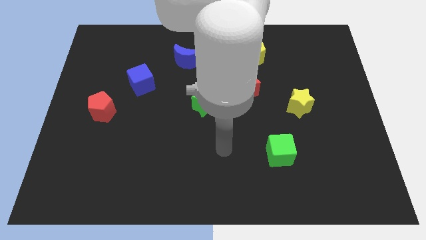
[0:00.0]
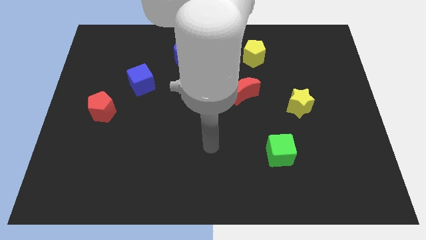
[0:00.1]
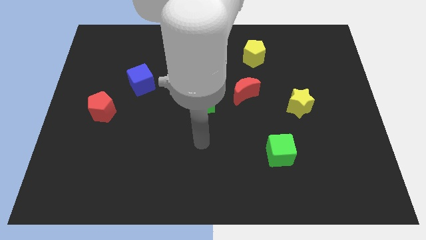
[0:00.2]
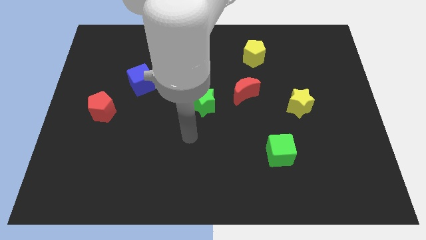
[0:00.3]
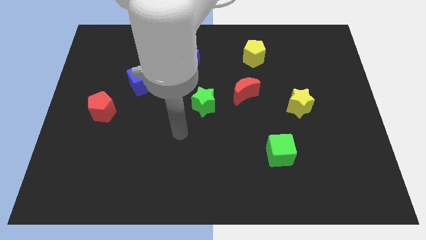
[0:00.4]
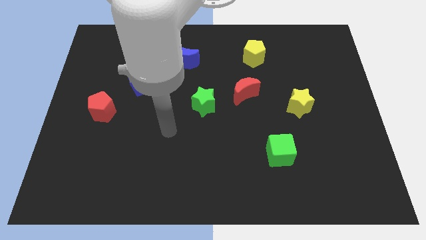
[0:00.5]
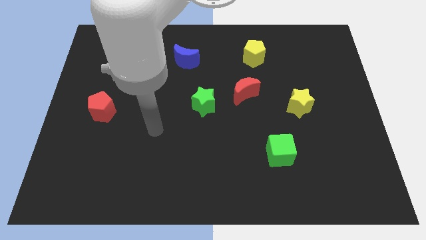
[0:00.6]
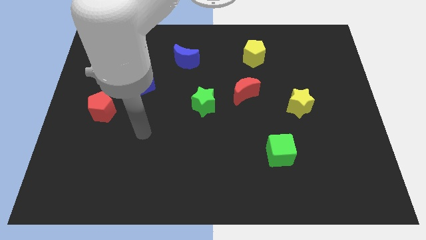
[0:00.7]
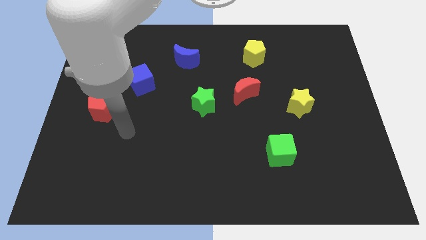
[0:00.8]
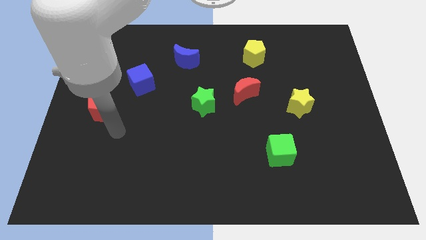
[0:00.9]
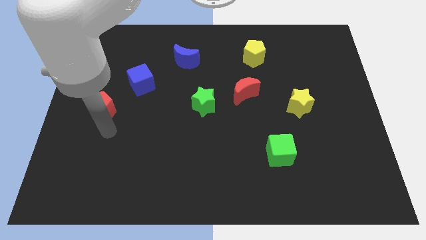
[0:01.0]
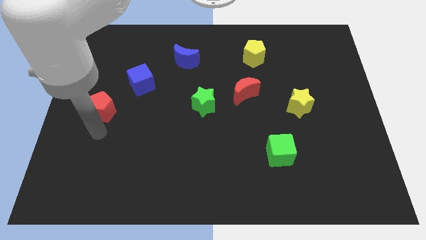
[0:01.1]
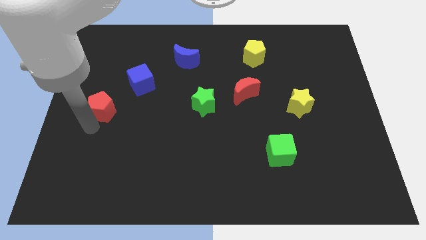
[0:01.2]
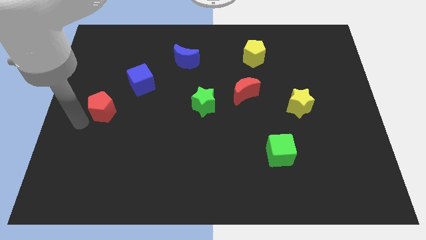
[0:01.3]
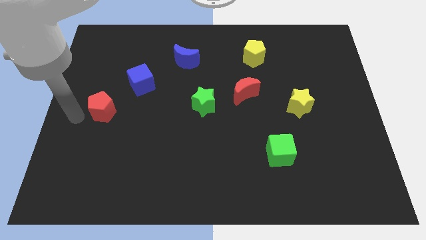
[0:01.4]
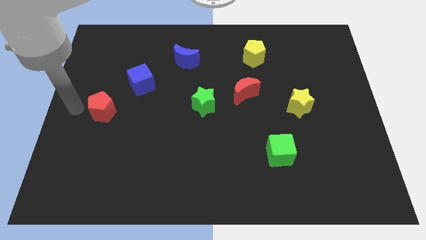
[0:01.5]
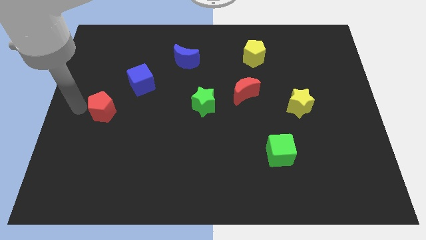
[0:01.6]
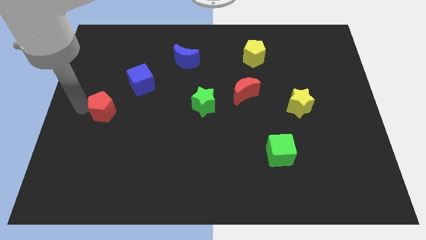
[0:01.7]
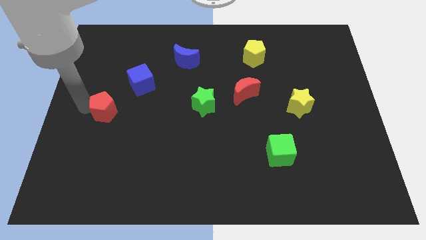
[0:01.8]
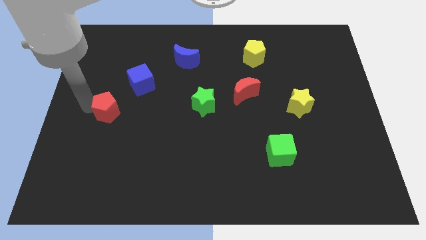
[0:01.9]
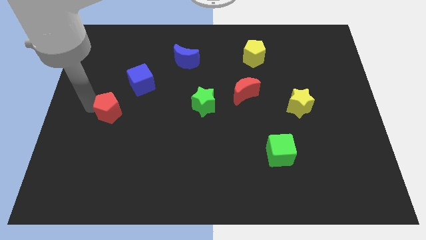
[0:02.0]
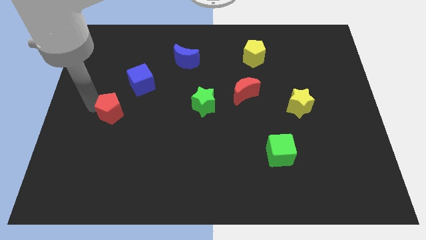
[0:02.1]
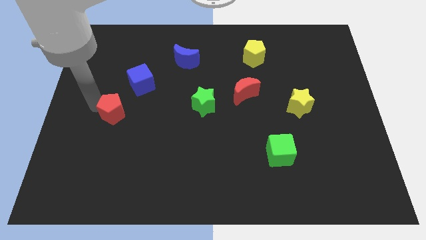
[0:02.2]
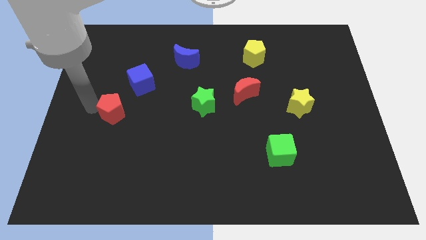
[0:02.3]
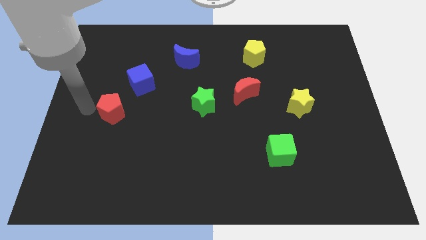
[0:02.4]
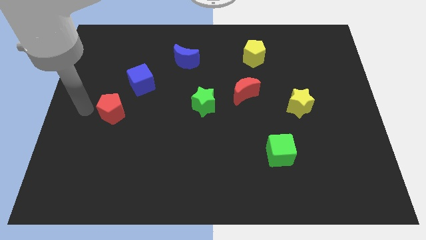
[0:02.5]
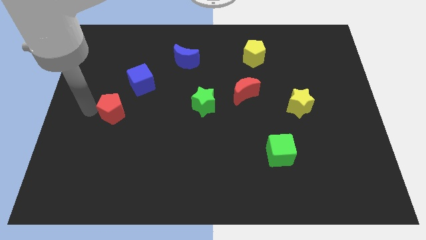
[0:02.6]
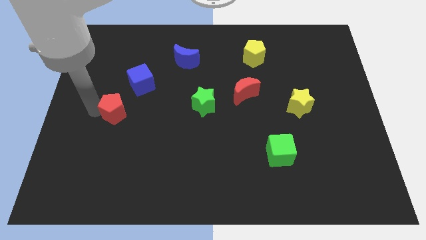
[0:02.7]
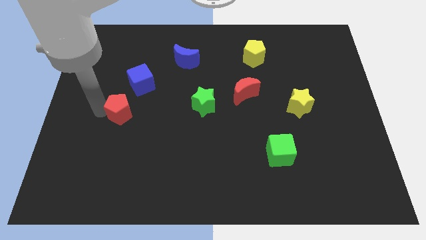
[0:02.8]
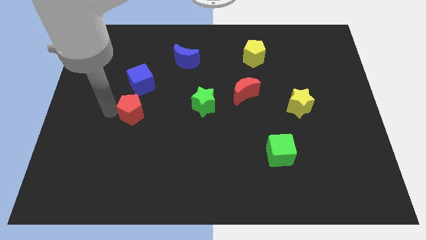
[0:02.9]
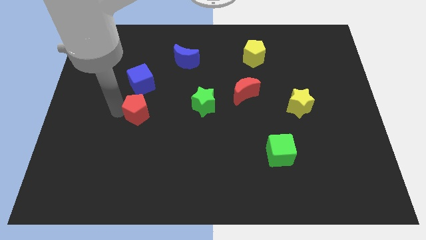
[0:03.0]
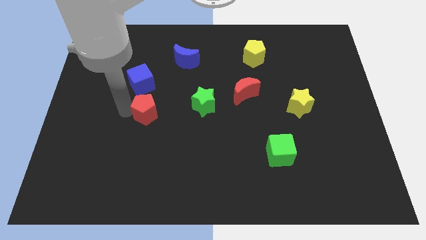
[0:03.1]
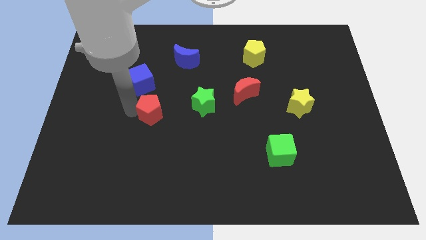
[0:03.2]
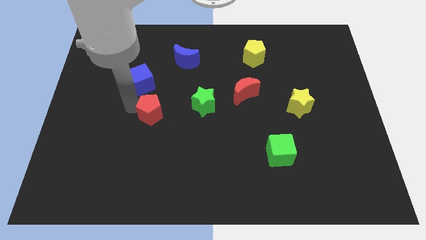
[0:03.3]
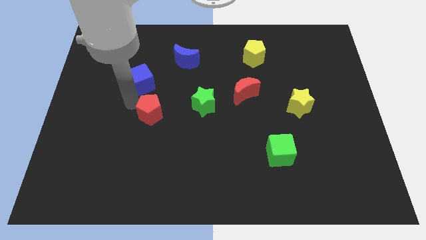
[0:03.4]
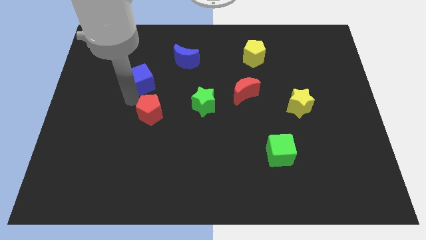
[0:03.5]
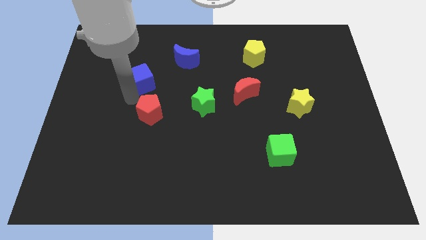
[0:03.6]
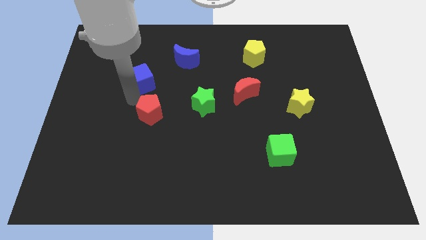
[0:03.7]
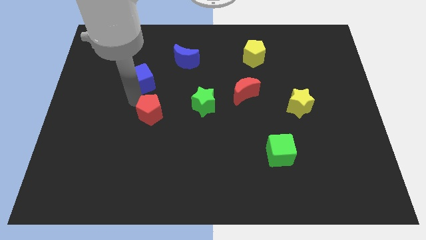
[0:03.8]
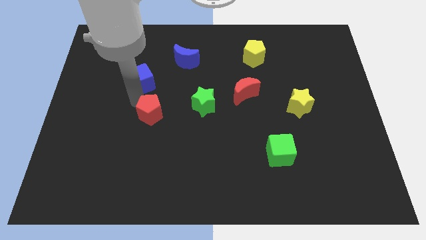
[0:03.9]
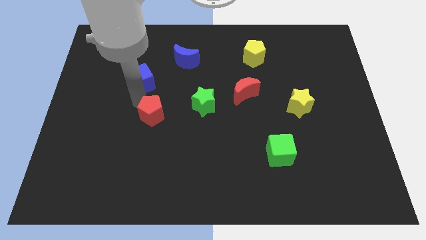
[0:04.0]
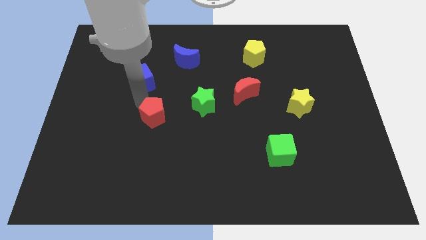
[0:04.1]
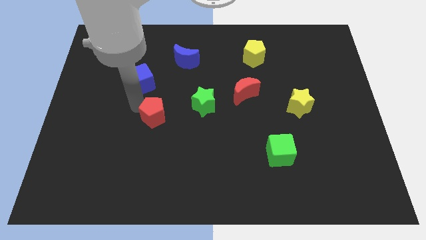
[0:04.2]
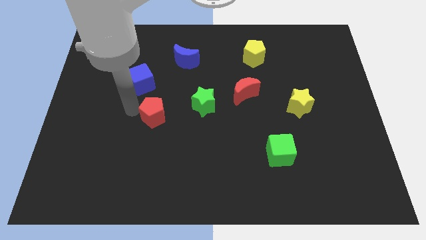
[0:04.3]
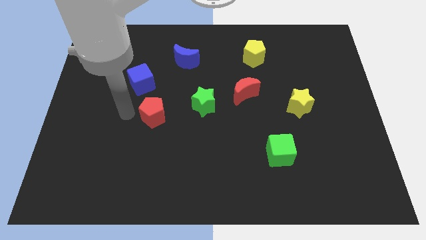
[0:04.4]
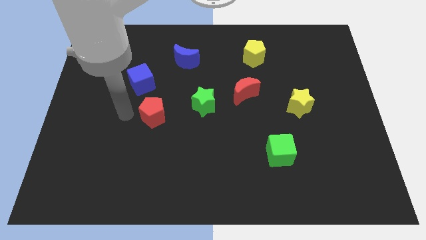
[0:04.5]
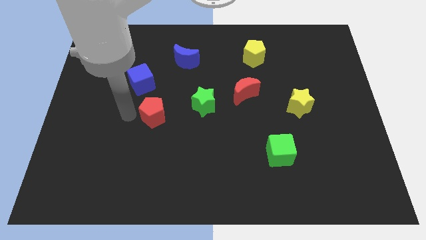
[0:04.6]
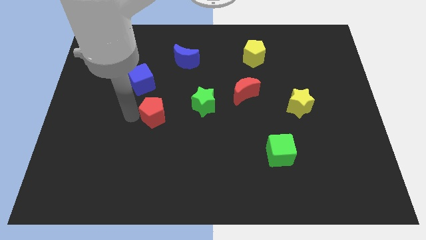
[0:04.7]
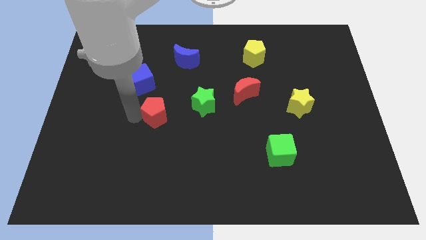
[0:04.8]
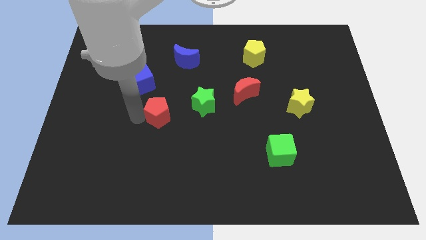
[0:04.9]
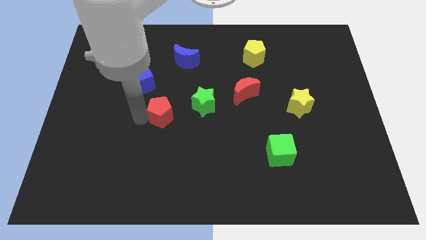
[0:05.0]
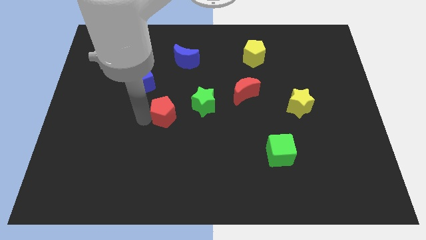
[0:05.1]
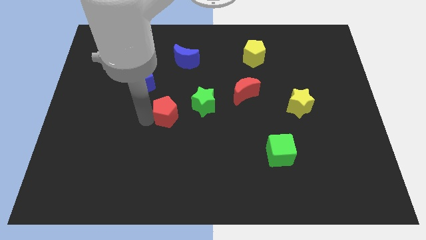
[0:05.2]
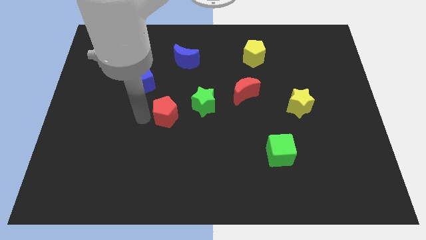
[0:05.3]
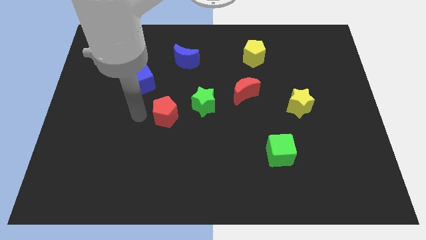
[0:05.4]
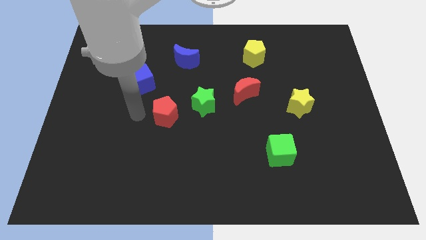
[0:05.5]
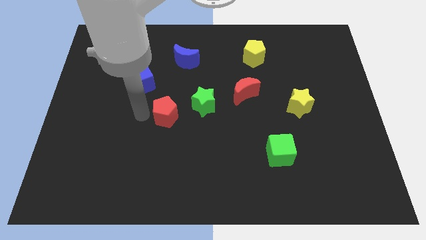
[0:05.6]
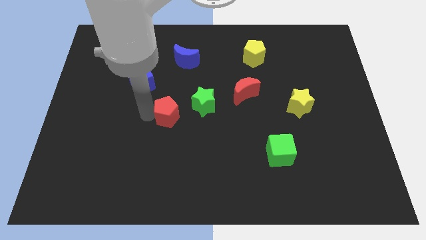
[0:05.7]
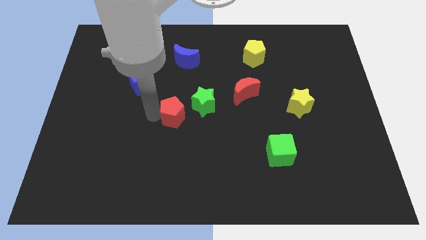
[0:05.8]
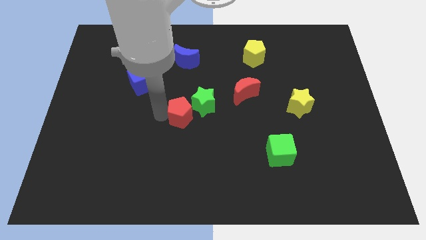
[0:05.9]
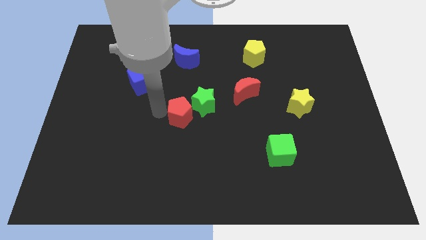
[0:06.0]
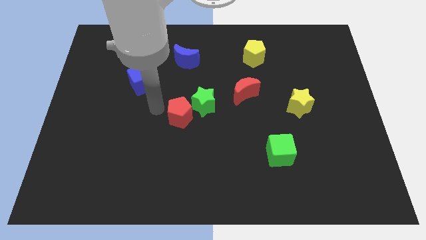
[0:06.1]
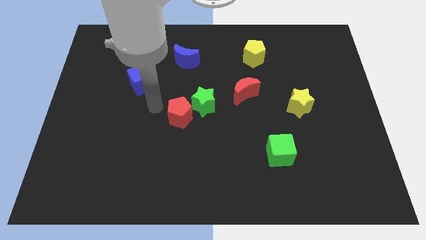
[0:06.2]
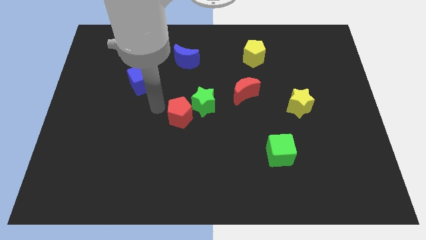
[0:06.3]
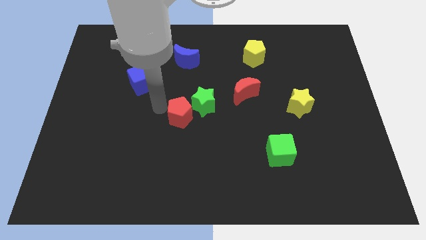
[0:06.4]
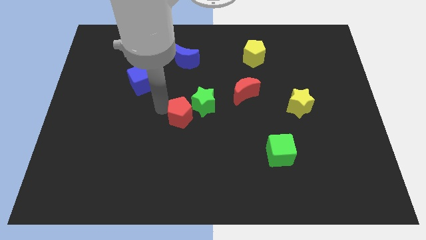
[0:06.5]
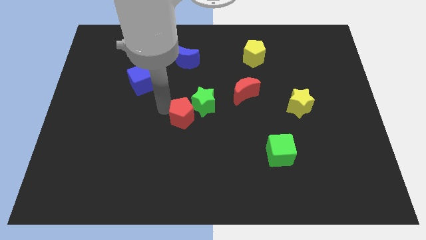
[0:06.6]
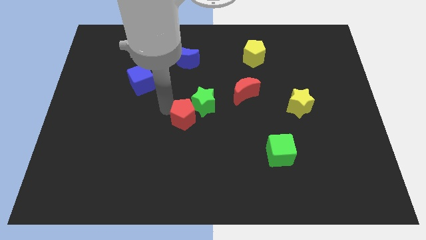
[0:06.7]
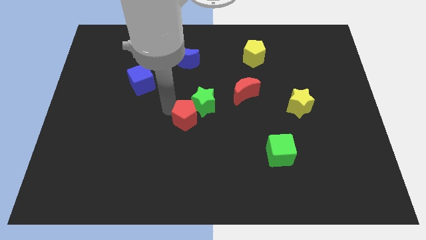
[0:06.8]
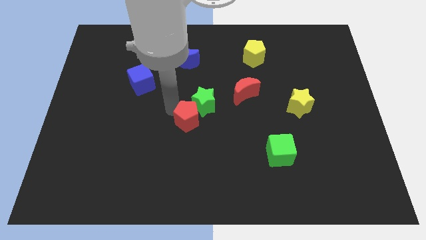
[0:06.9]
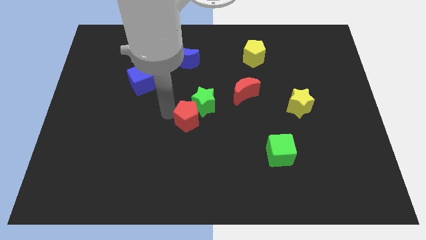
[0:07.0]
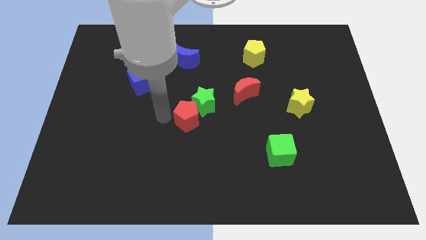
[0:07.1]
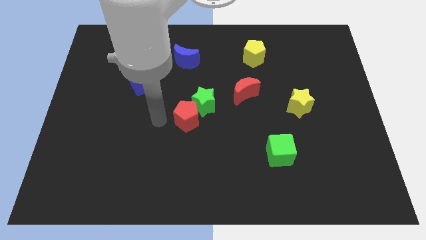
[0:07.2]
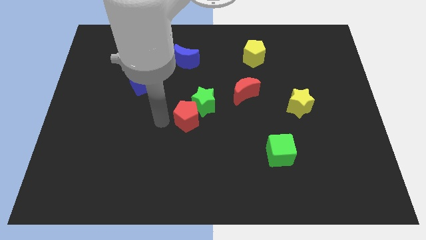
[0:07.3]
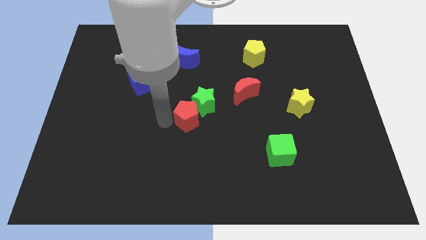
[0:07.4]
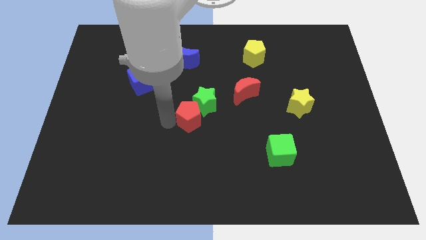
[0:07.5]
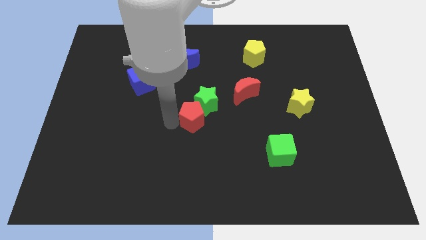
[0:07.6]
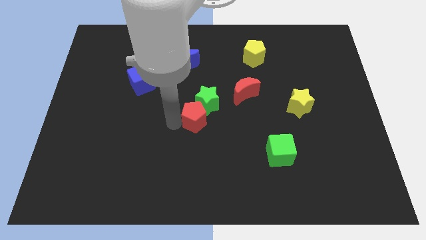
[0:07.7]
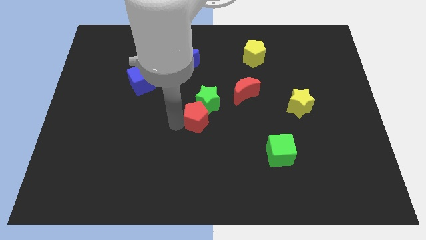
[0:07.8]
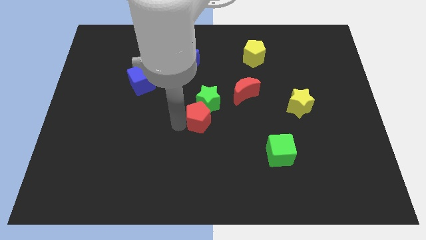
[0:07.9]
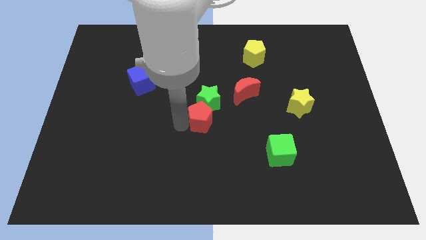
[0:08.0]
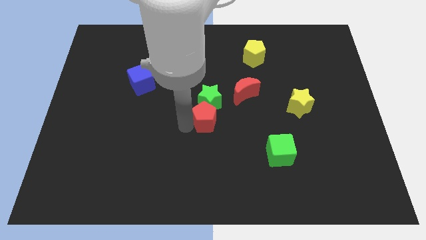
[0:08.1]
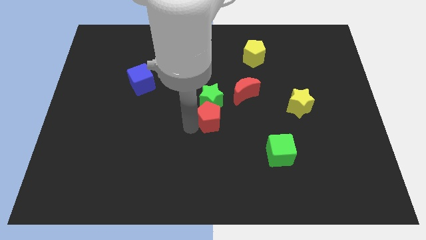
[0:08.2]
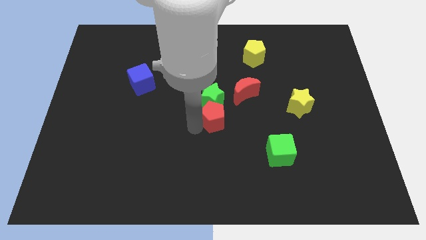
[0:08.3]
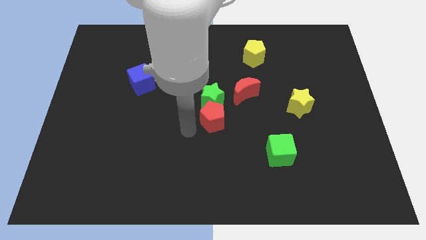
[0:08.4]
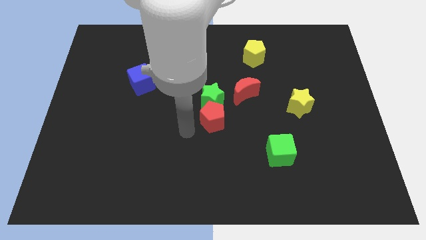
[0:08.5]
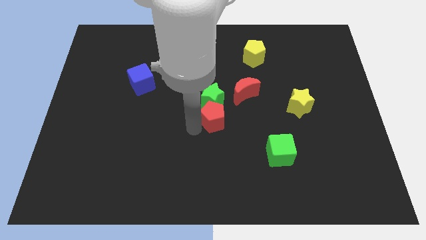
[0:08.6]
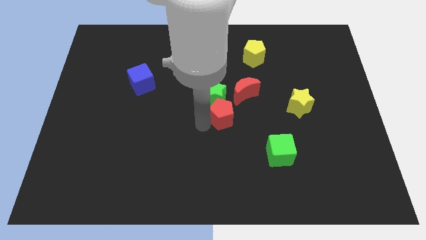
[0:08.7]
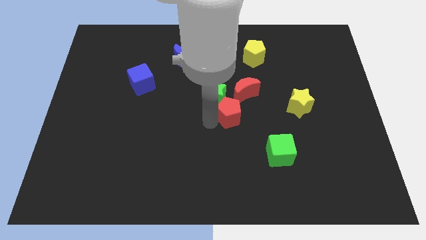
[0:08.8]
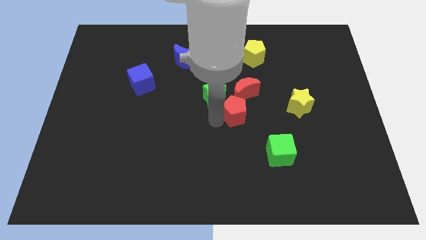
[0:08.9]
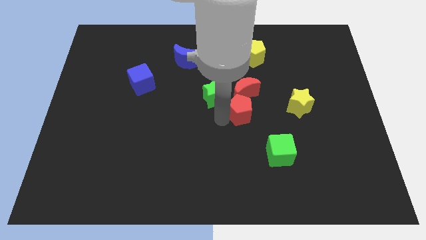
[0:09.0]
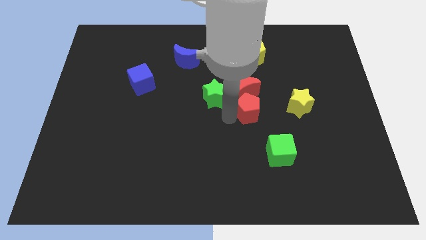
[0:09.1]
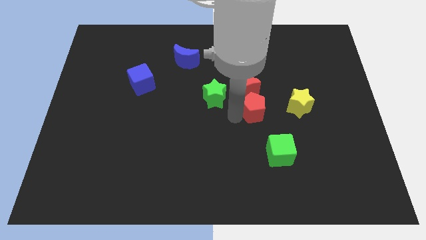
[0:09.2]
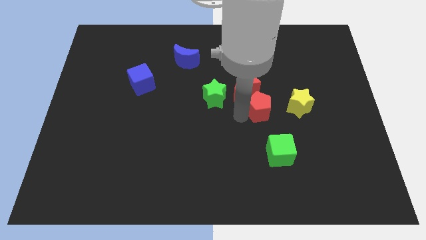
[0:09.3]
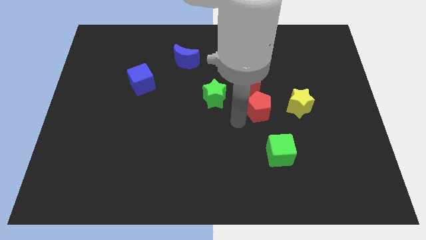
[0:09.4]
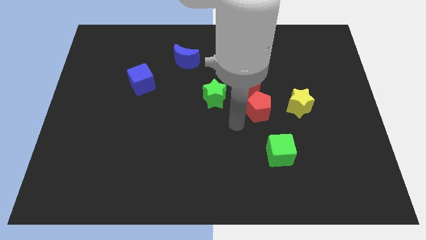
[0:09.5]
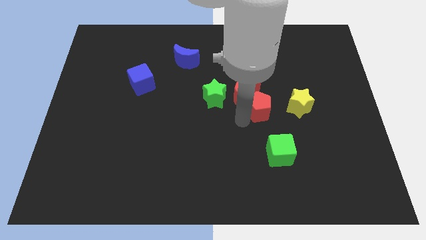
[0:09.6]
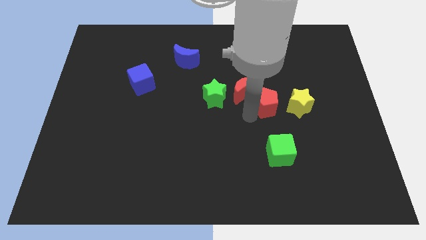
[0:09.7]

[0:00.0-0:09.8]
push the red pentagon to the right side of the red moon
